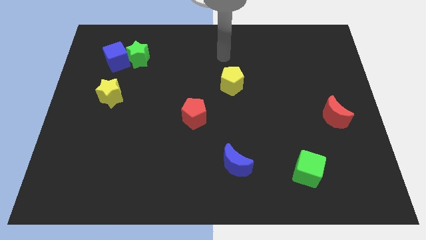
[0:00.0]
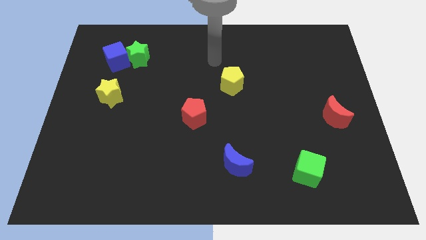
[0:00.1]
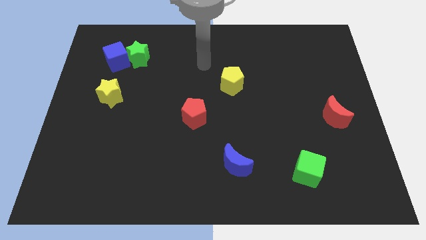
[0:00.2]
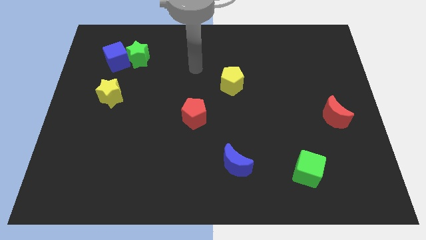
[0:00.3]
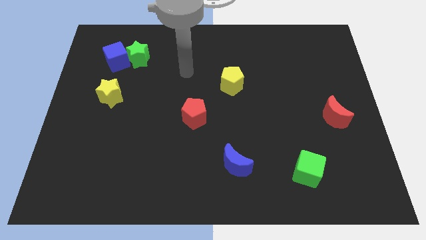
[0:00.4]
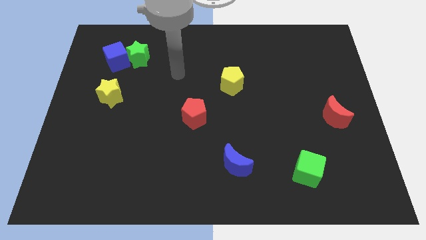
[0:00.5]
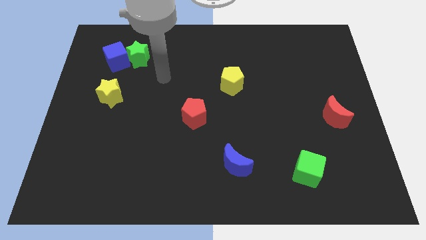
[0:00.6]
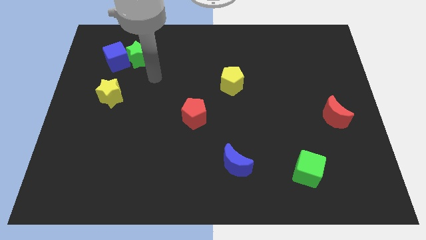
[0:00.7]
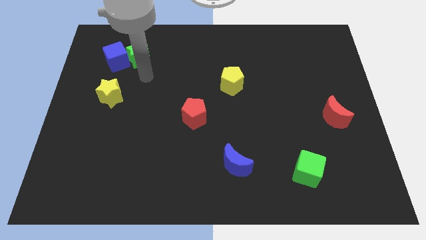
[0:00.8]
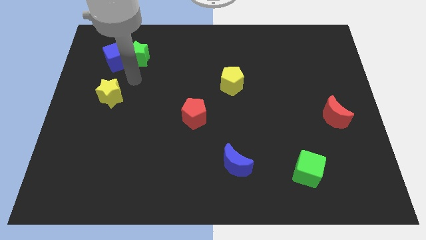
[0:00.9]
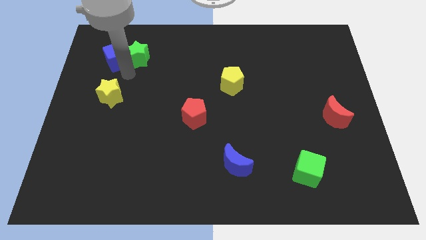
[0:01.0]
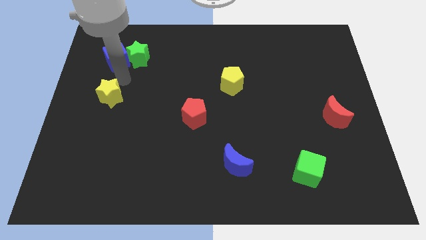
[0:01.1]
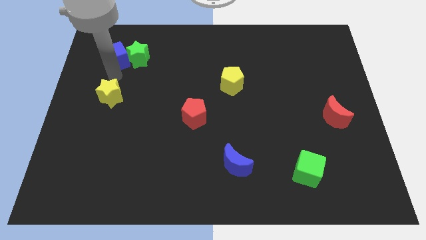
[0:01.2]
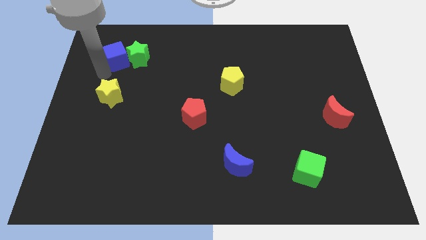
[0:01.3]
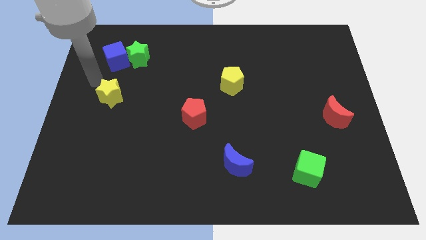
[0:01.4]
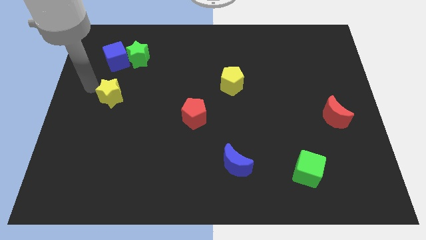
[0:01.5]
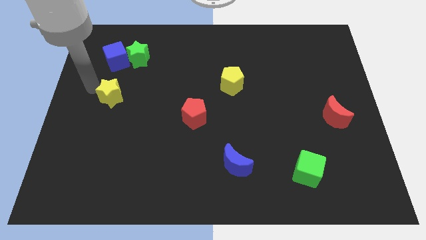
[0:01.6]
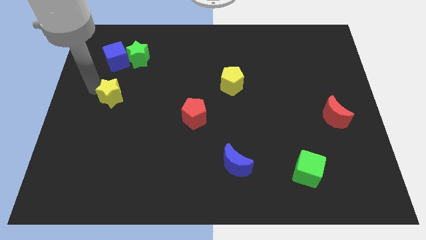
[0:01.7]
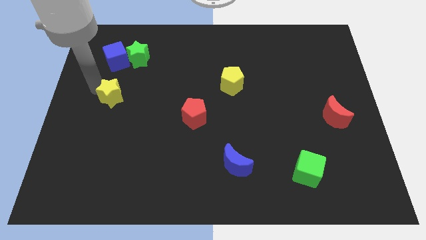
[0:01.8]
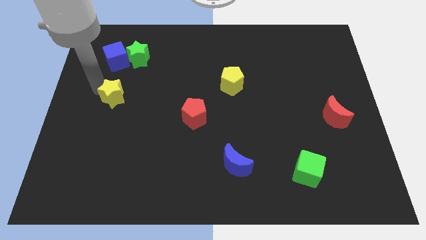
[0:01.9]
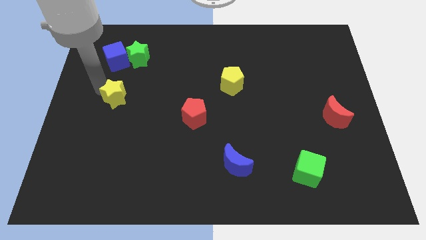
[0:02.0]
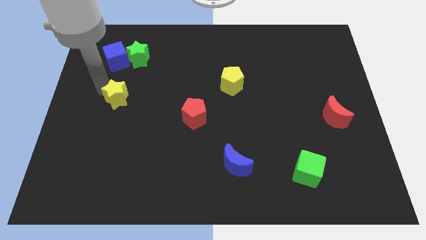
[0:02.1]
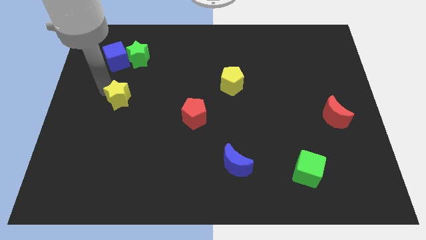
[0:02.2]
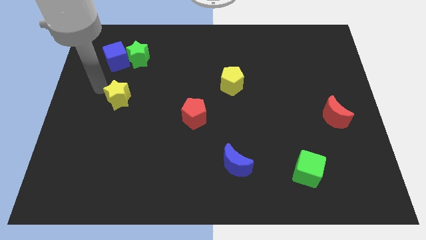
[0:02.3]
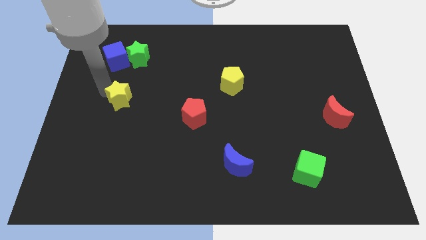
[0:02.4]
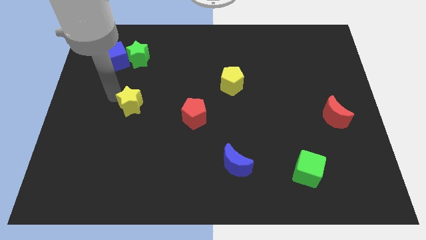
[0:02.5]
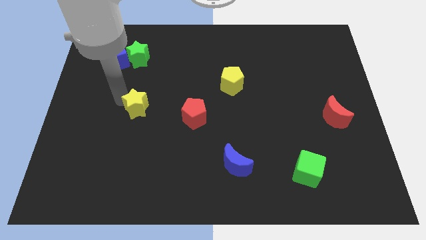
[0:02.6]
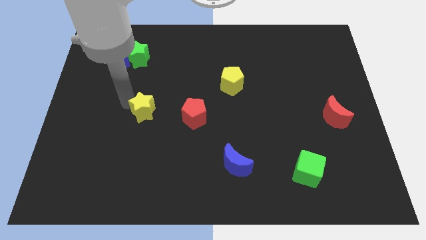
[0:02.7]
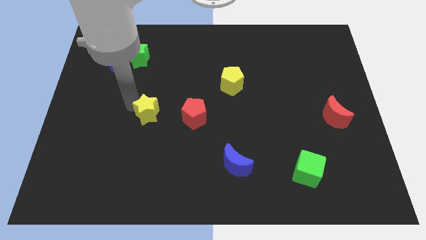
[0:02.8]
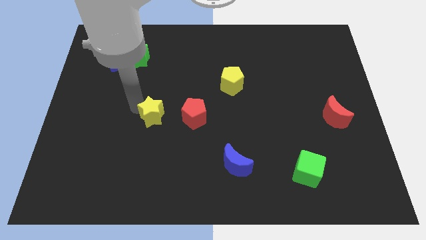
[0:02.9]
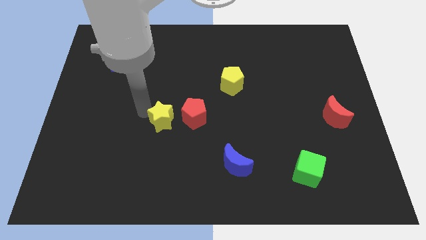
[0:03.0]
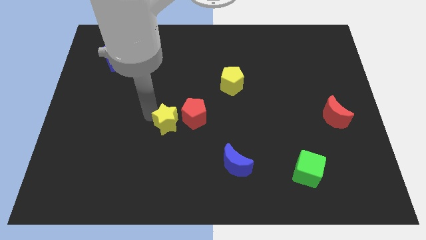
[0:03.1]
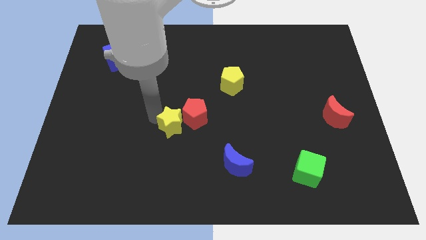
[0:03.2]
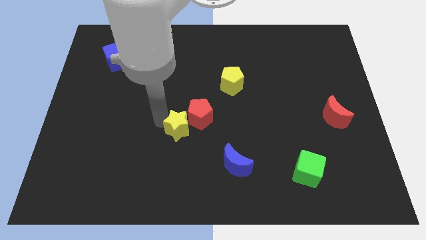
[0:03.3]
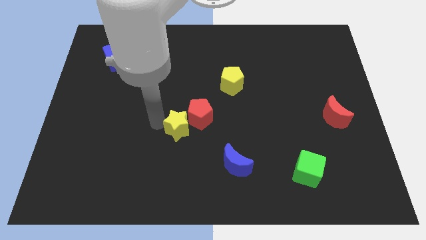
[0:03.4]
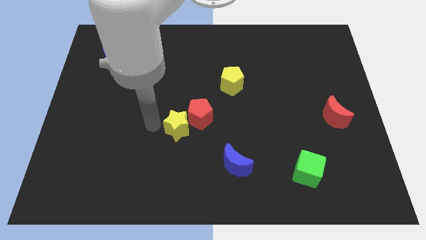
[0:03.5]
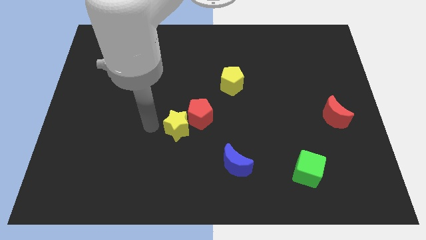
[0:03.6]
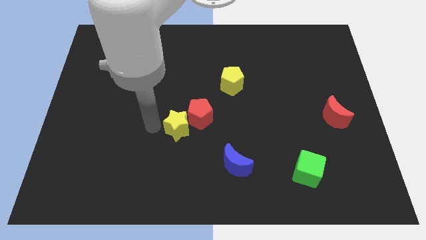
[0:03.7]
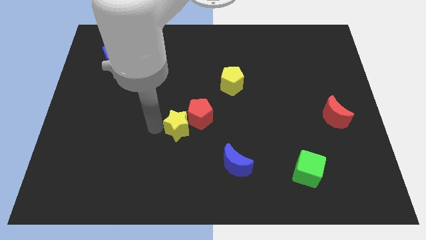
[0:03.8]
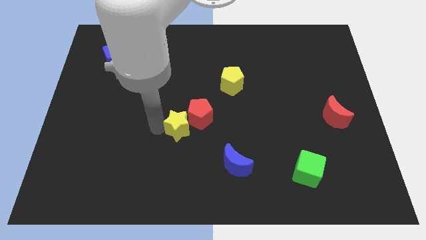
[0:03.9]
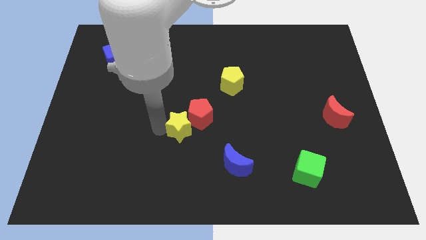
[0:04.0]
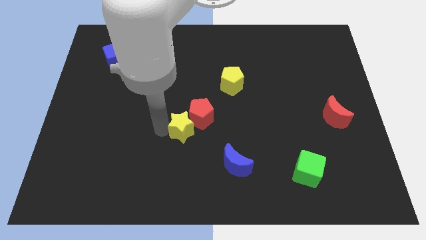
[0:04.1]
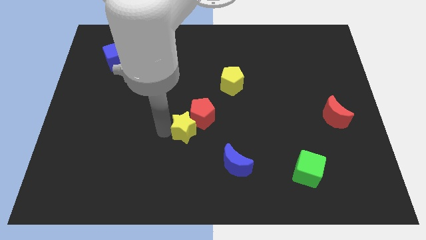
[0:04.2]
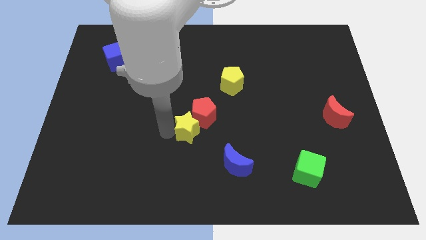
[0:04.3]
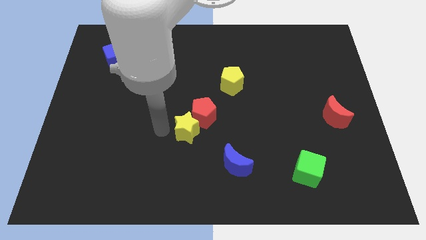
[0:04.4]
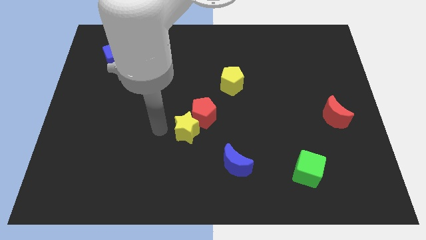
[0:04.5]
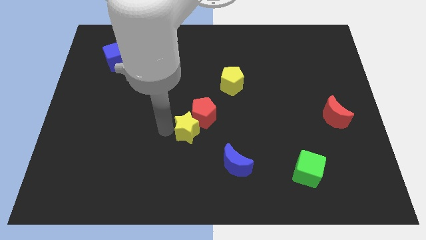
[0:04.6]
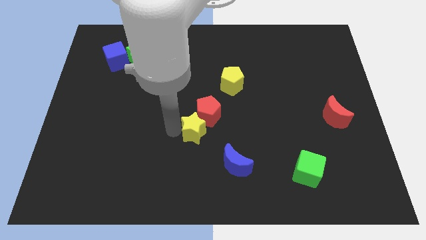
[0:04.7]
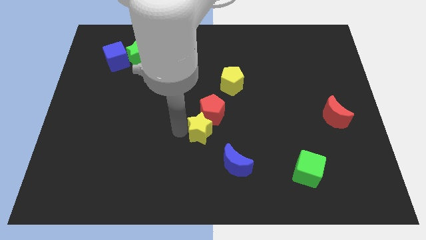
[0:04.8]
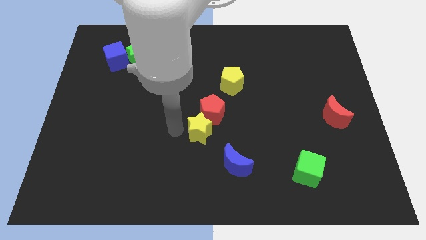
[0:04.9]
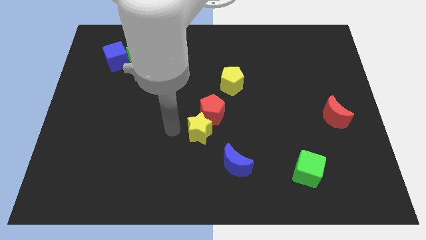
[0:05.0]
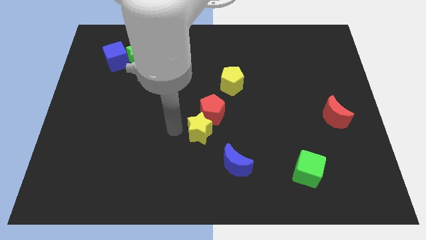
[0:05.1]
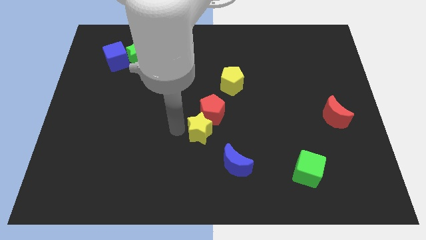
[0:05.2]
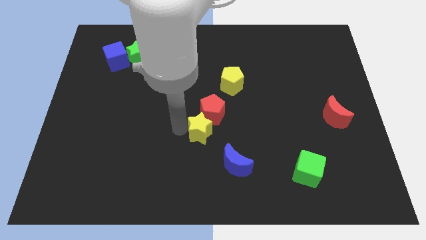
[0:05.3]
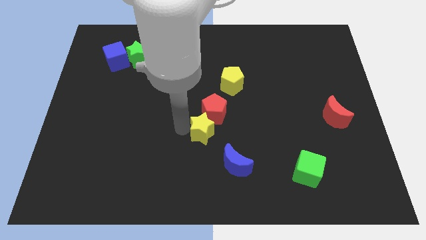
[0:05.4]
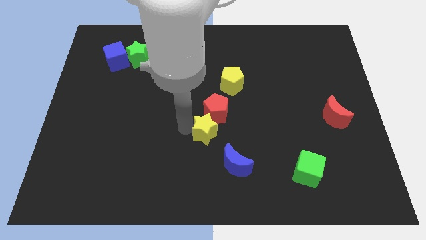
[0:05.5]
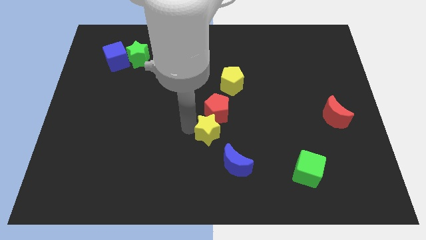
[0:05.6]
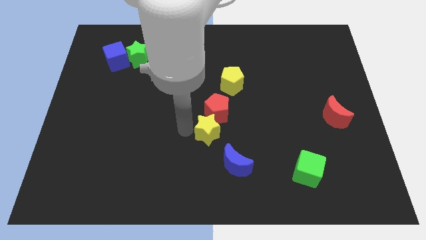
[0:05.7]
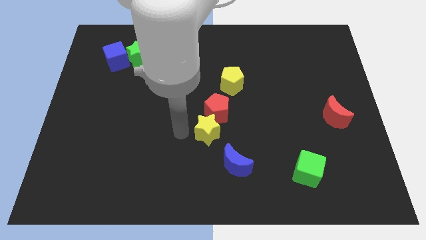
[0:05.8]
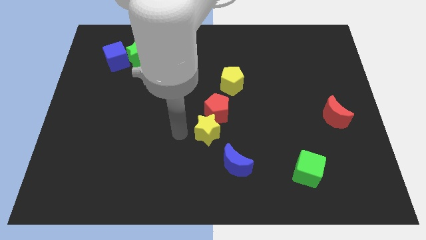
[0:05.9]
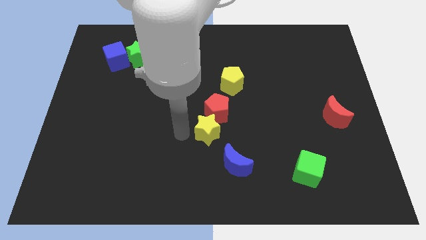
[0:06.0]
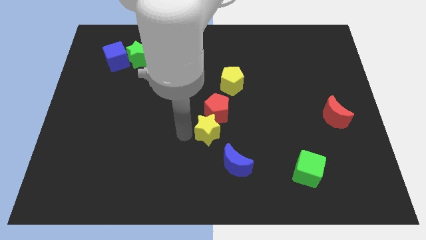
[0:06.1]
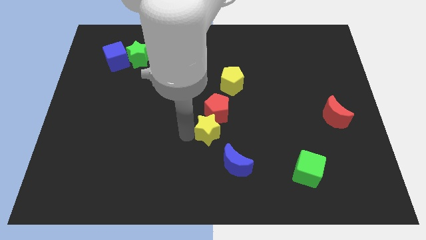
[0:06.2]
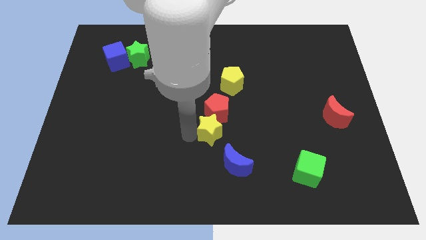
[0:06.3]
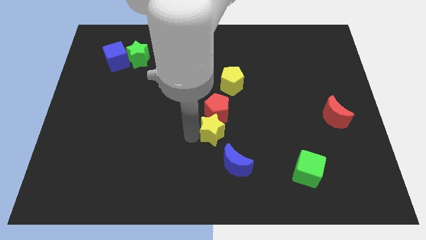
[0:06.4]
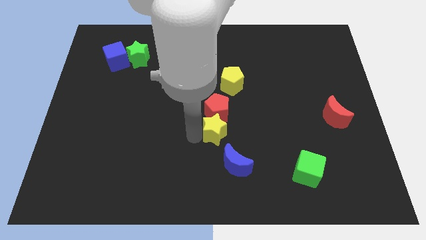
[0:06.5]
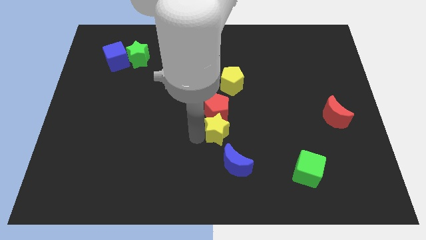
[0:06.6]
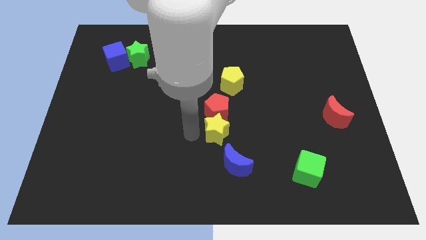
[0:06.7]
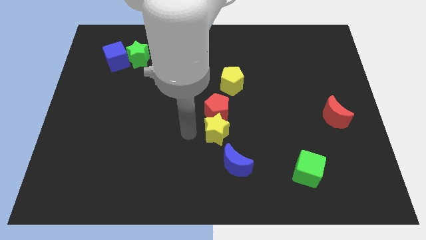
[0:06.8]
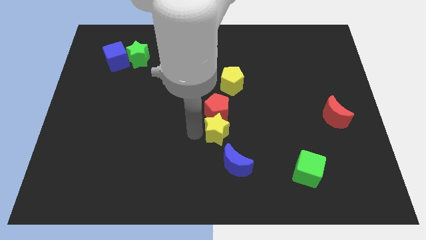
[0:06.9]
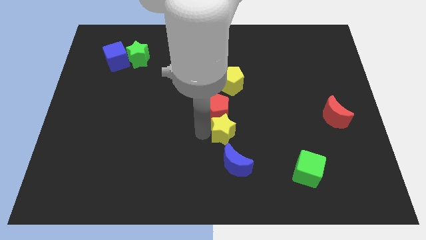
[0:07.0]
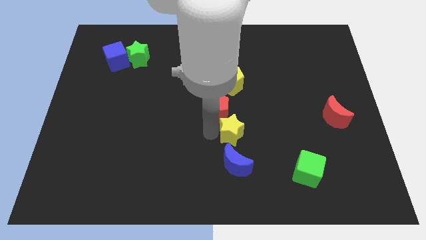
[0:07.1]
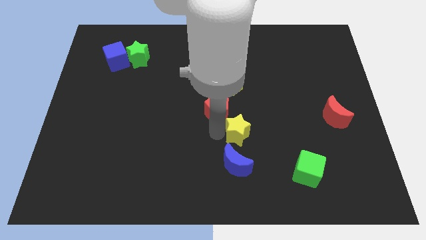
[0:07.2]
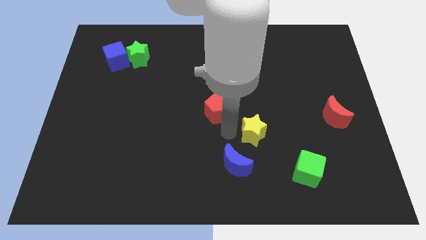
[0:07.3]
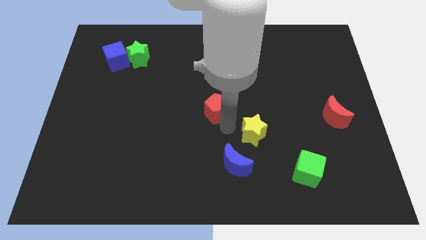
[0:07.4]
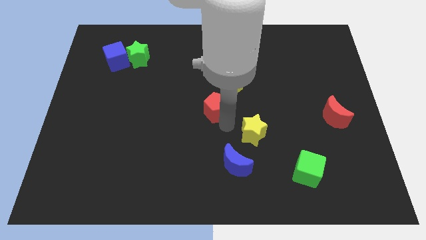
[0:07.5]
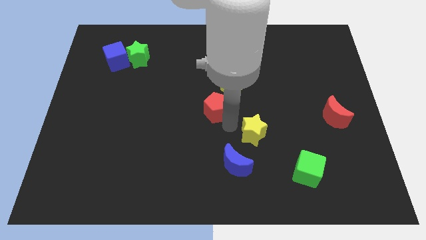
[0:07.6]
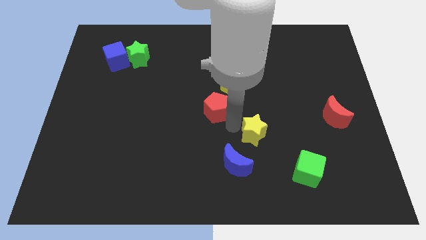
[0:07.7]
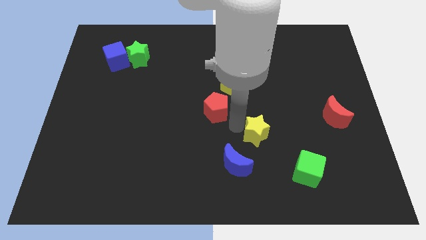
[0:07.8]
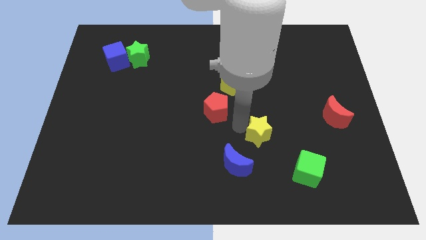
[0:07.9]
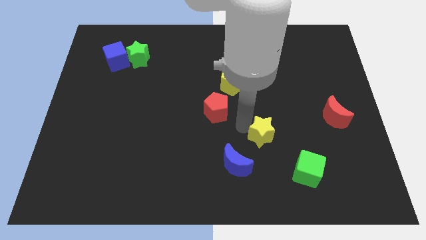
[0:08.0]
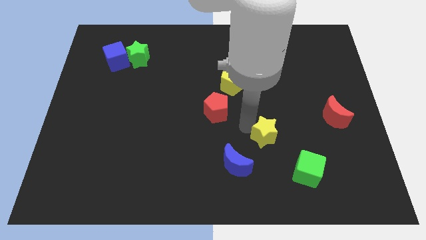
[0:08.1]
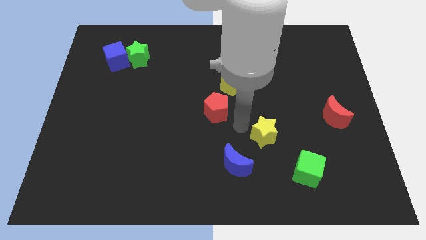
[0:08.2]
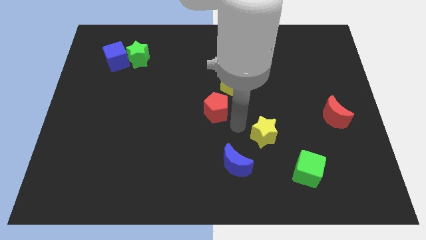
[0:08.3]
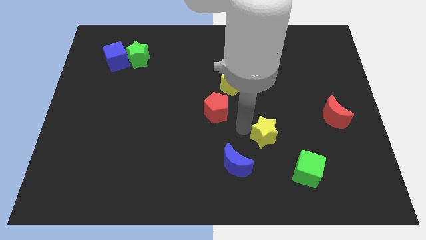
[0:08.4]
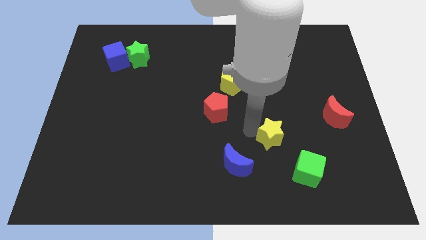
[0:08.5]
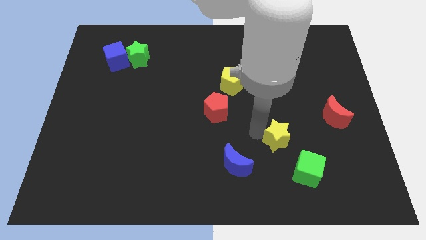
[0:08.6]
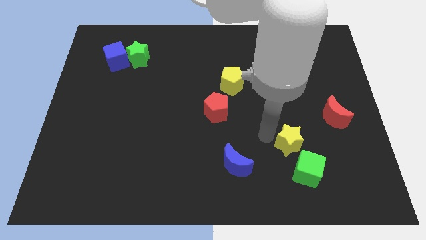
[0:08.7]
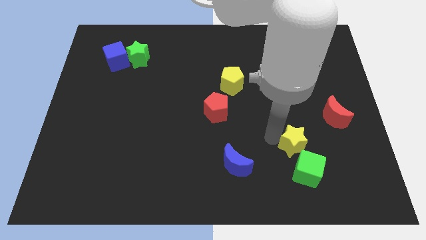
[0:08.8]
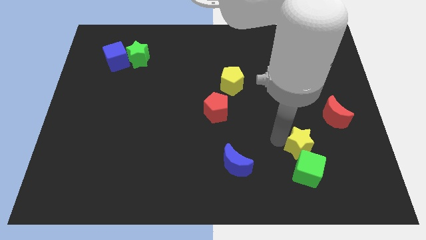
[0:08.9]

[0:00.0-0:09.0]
put the yellow star to the top right side of the green cube
